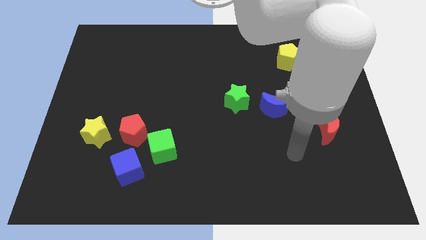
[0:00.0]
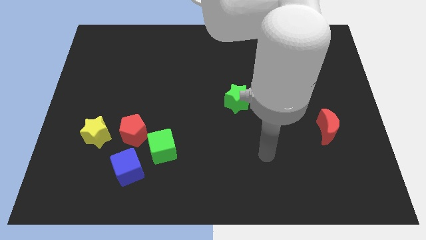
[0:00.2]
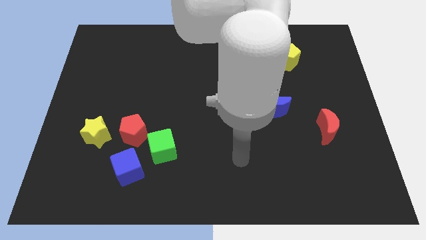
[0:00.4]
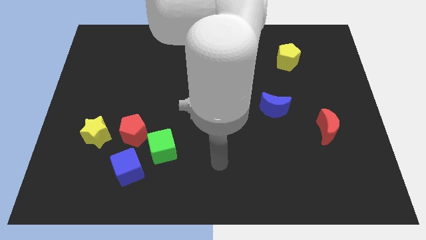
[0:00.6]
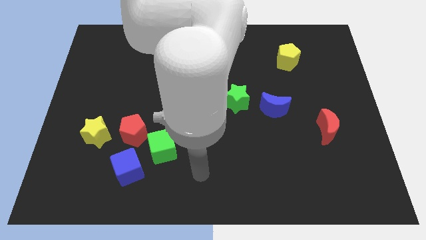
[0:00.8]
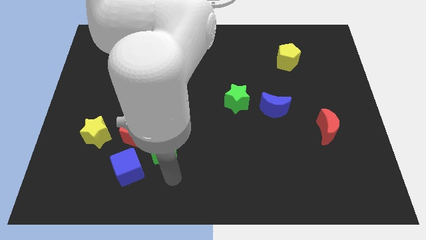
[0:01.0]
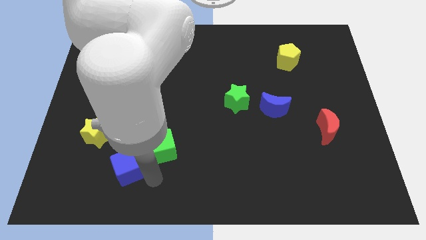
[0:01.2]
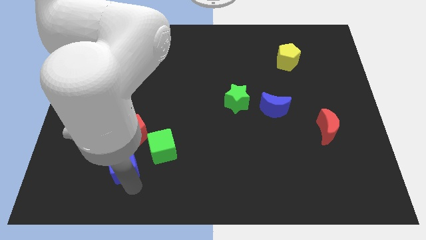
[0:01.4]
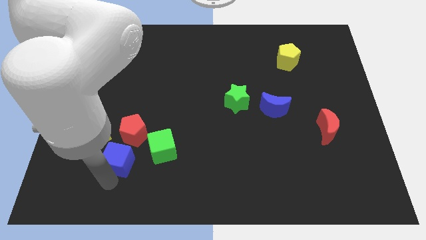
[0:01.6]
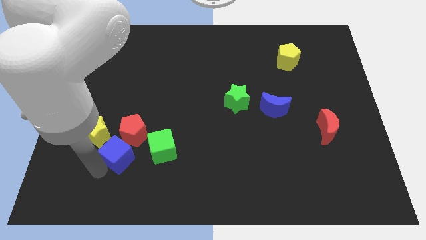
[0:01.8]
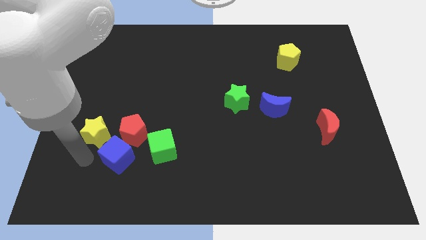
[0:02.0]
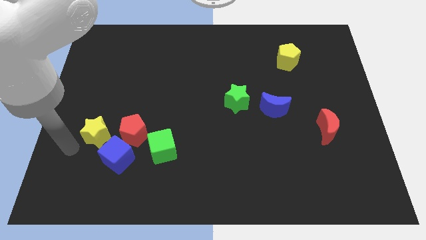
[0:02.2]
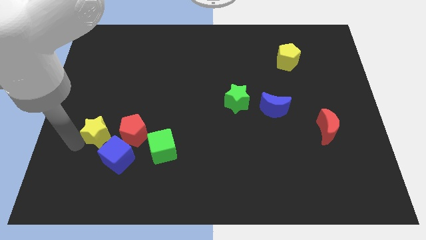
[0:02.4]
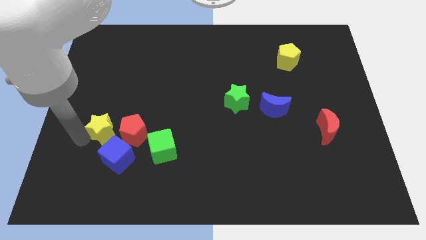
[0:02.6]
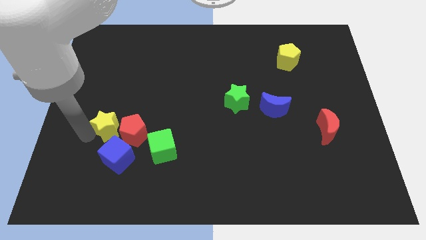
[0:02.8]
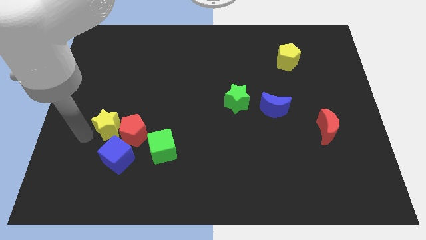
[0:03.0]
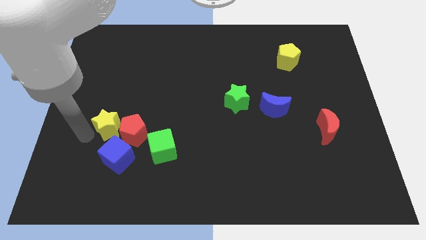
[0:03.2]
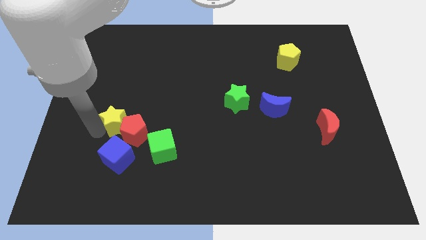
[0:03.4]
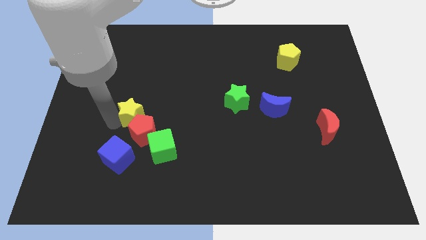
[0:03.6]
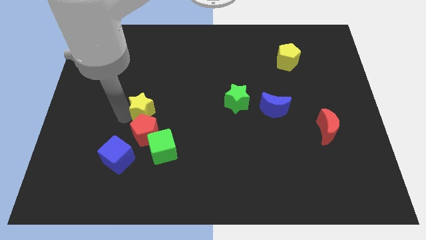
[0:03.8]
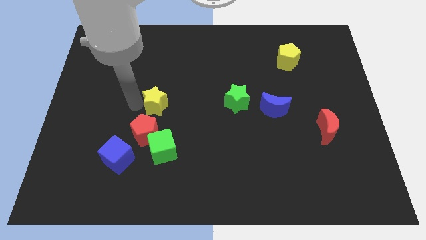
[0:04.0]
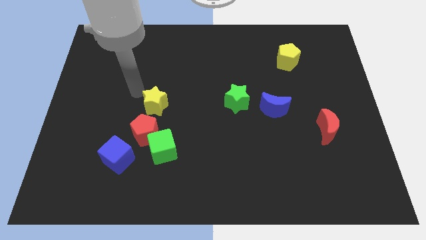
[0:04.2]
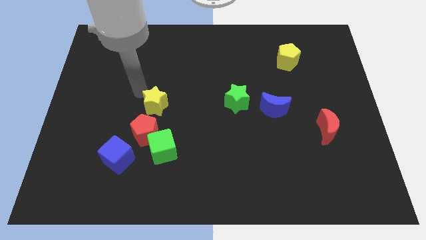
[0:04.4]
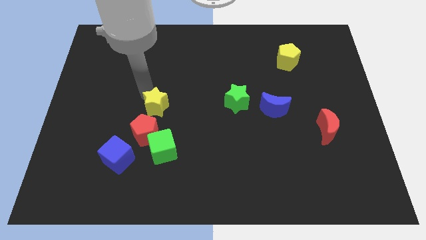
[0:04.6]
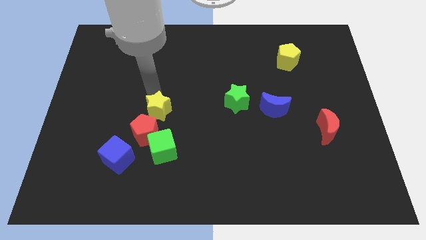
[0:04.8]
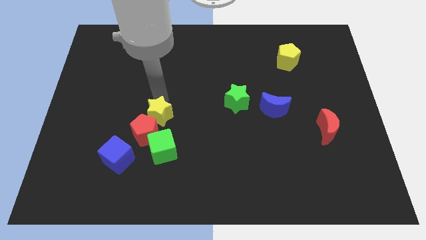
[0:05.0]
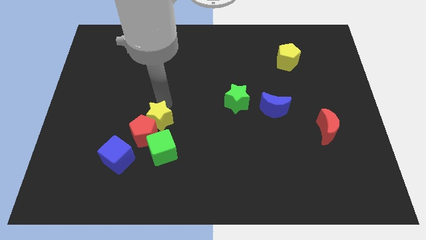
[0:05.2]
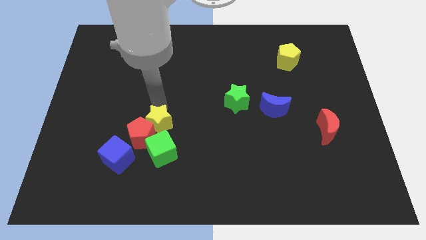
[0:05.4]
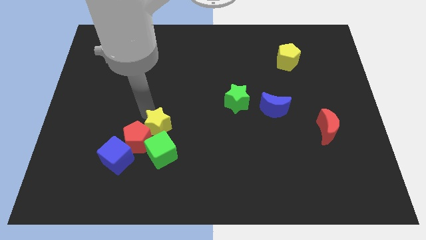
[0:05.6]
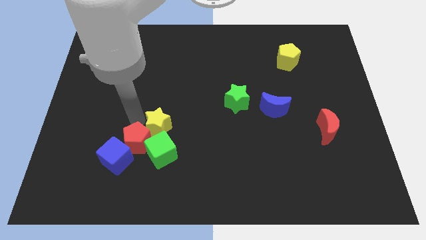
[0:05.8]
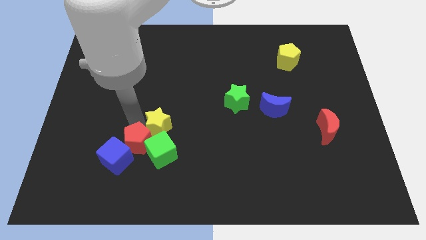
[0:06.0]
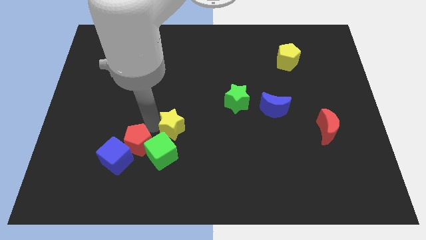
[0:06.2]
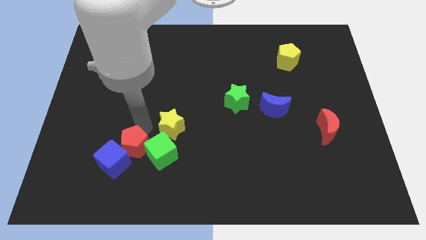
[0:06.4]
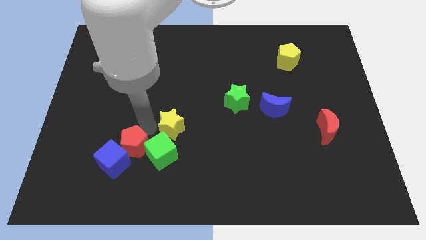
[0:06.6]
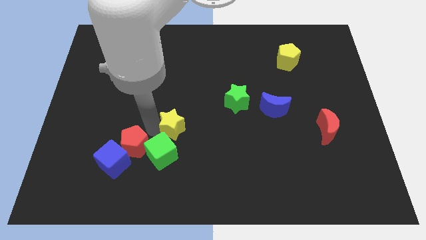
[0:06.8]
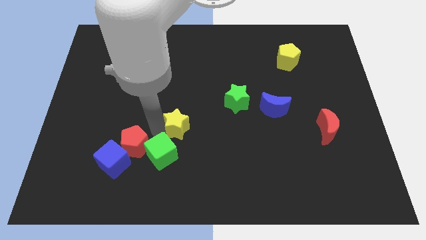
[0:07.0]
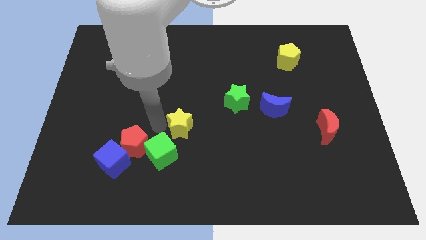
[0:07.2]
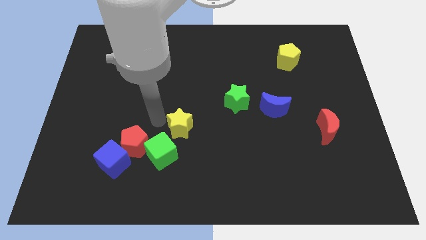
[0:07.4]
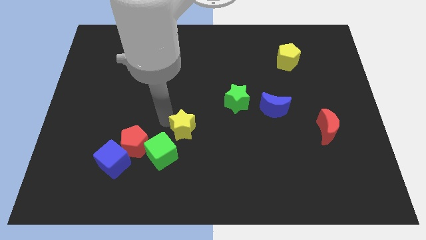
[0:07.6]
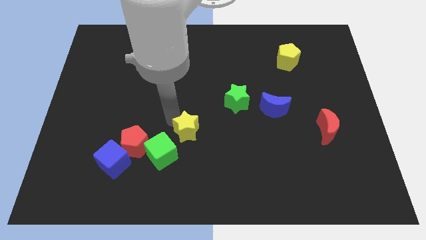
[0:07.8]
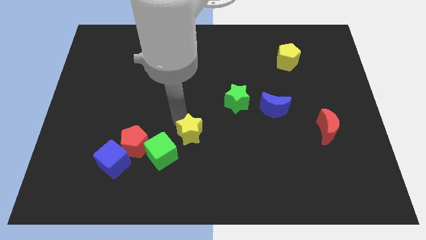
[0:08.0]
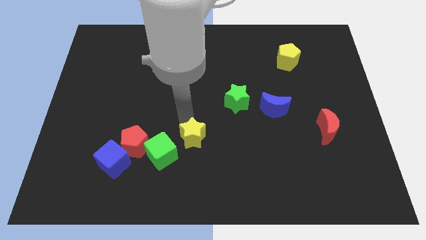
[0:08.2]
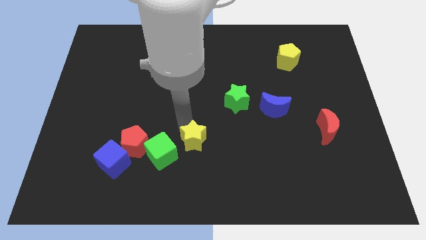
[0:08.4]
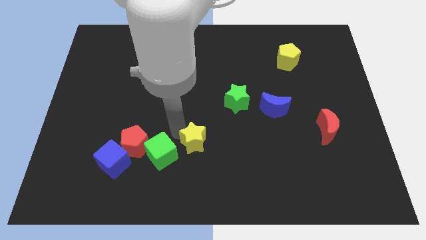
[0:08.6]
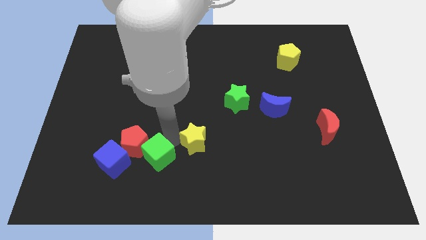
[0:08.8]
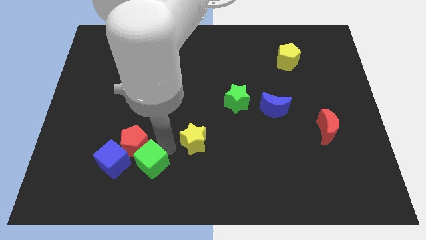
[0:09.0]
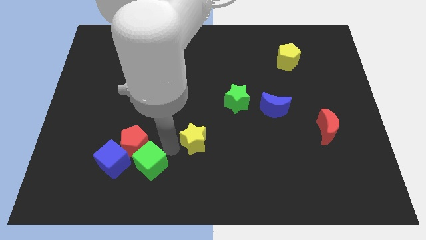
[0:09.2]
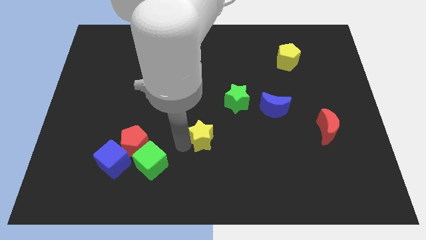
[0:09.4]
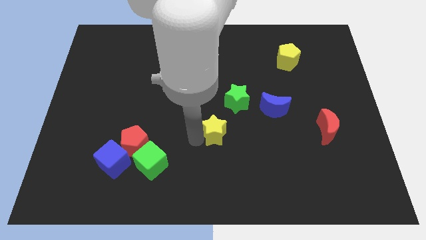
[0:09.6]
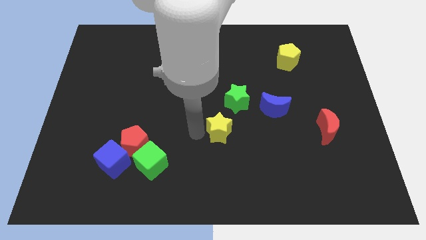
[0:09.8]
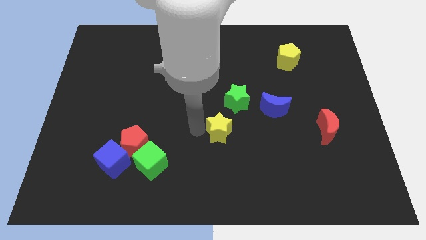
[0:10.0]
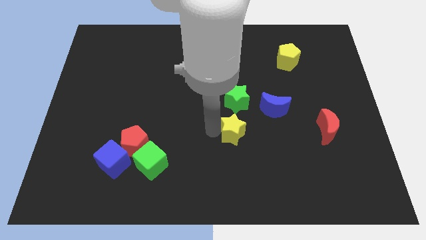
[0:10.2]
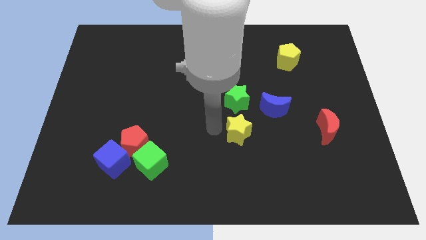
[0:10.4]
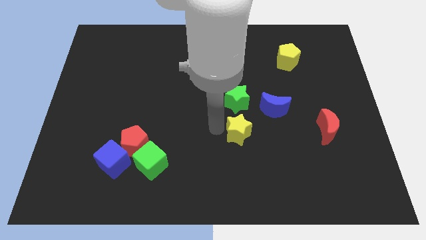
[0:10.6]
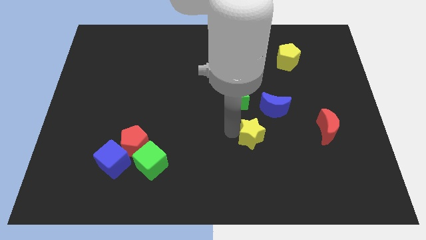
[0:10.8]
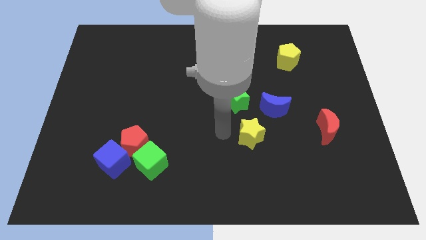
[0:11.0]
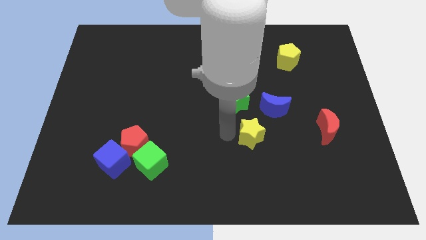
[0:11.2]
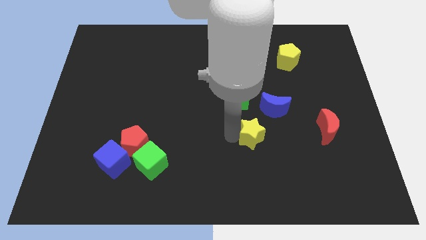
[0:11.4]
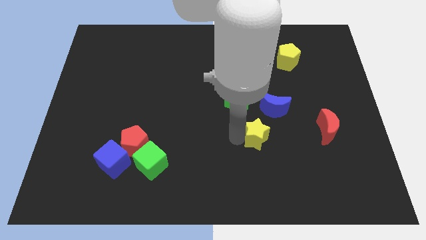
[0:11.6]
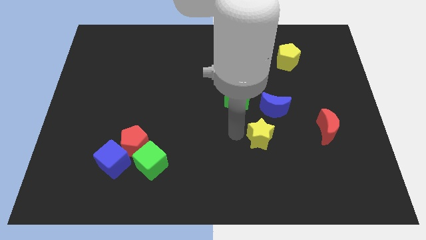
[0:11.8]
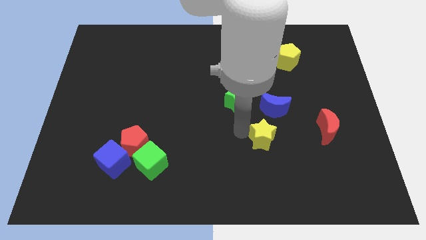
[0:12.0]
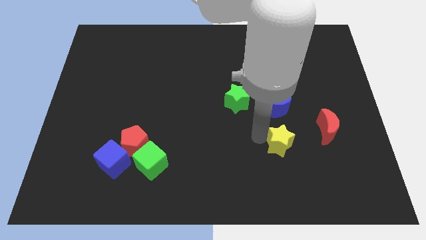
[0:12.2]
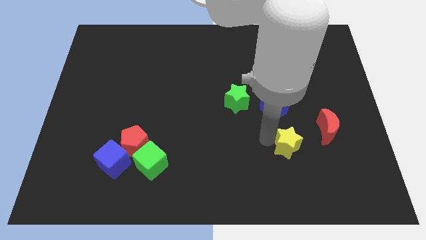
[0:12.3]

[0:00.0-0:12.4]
put the yellow star to the bottom left side of the red moon

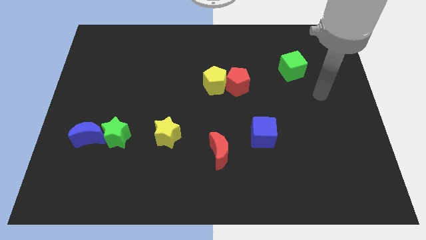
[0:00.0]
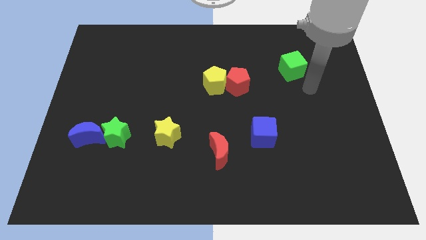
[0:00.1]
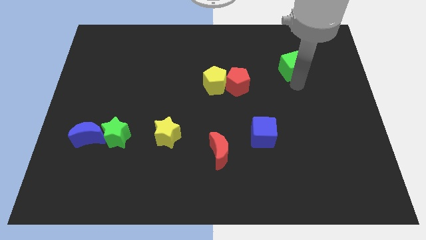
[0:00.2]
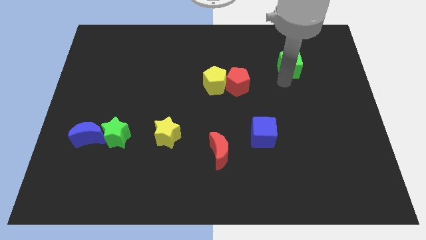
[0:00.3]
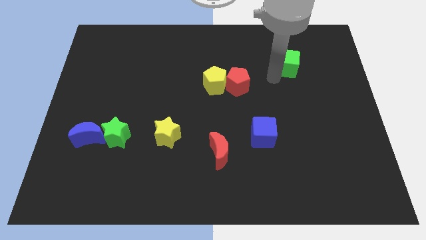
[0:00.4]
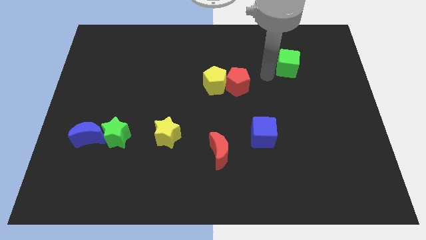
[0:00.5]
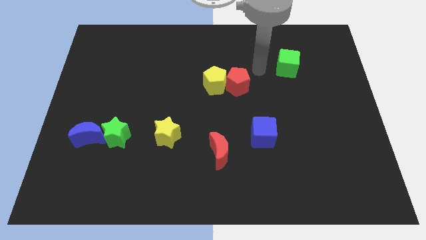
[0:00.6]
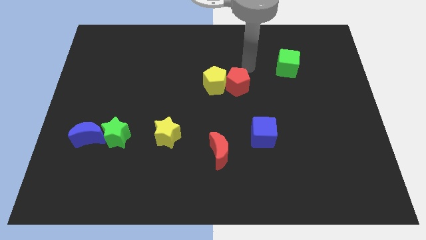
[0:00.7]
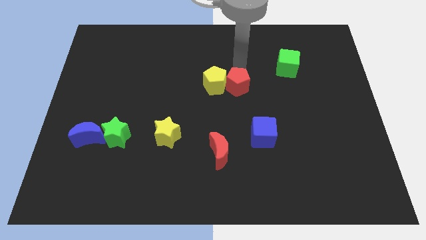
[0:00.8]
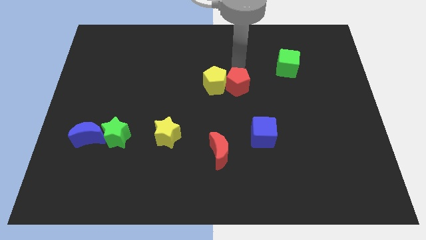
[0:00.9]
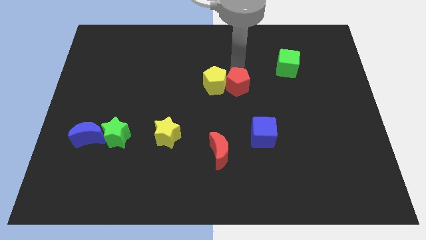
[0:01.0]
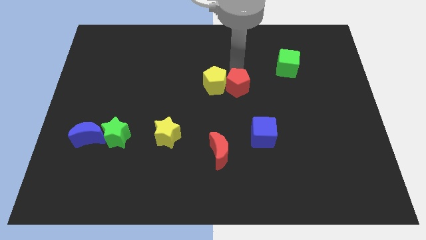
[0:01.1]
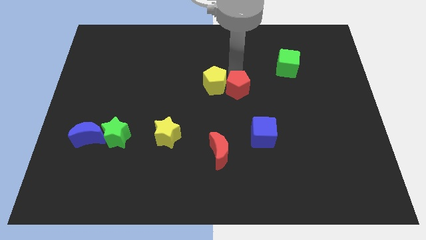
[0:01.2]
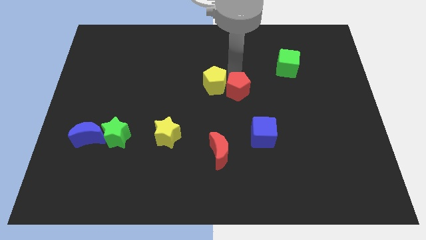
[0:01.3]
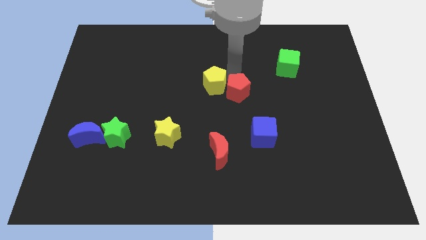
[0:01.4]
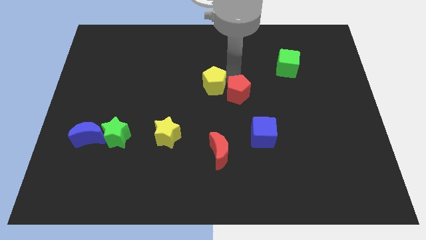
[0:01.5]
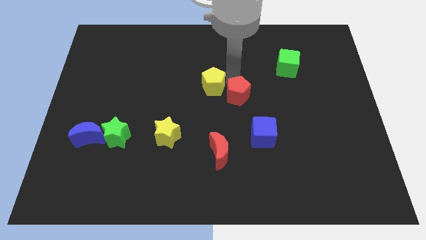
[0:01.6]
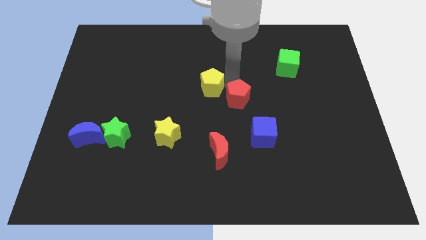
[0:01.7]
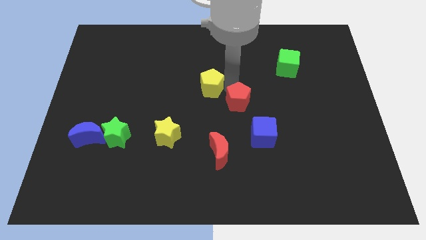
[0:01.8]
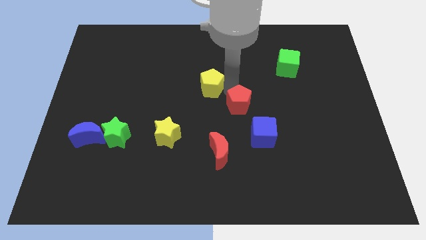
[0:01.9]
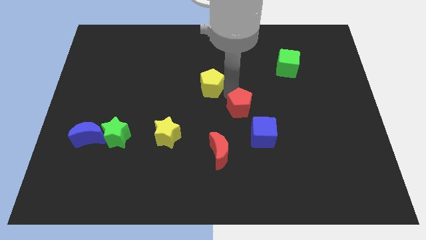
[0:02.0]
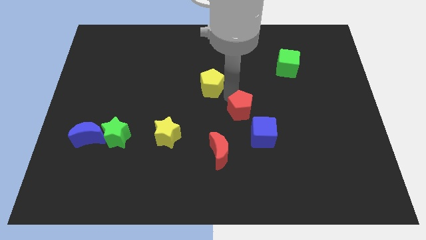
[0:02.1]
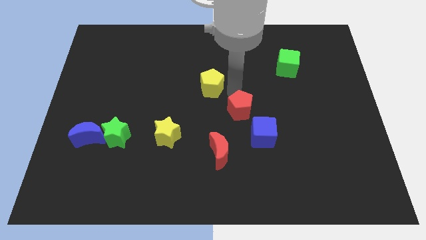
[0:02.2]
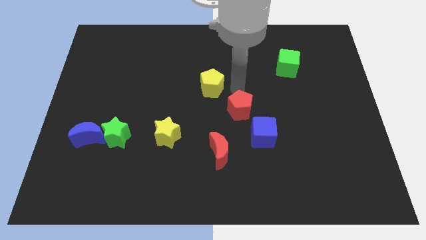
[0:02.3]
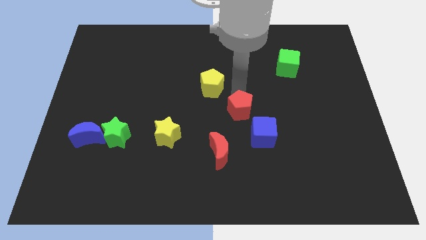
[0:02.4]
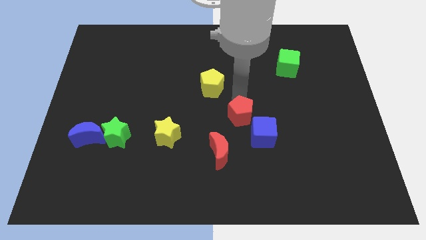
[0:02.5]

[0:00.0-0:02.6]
push the red pentagon to the top right side of the red moon

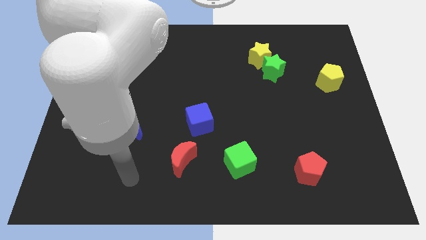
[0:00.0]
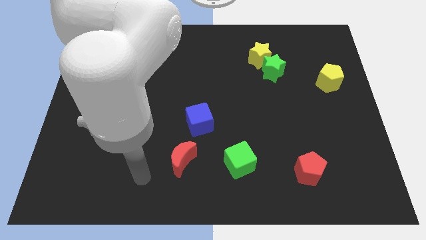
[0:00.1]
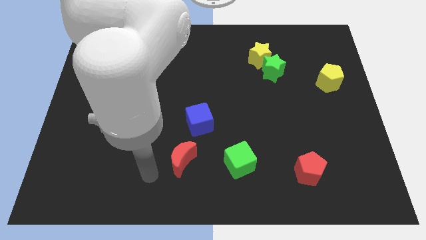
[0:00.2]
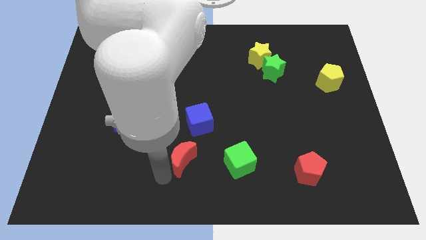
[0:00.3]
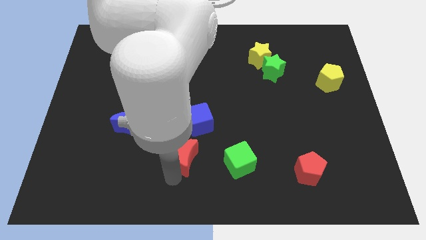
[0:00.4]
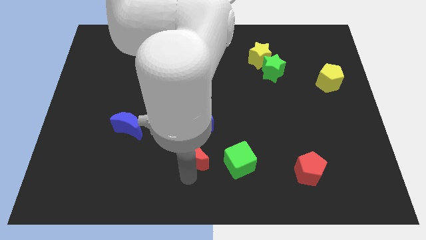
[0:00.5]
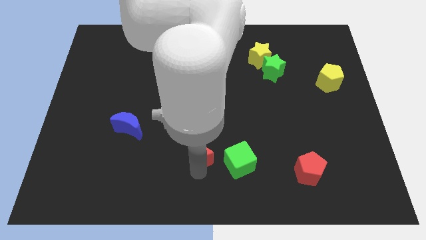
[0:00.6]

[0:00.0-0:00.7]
put the green cube to the bottom right side of the red moon
